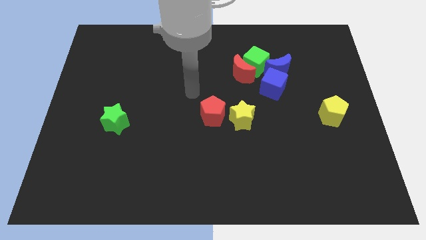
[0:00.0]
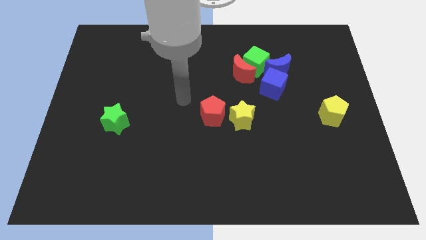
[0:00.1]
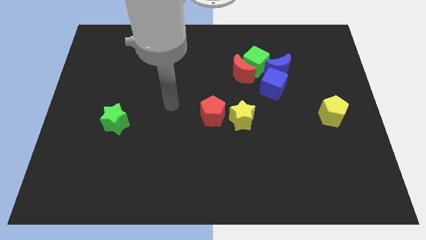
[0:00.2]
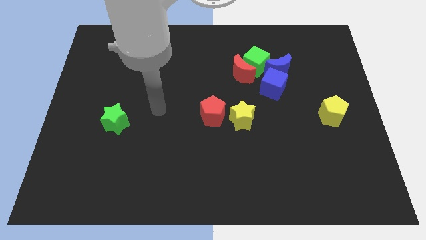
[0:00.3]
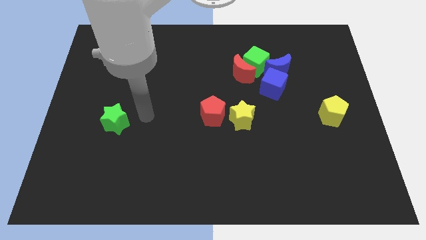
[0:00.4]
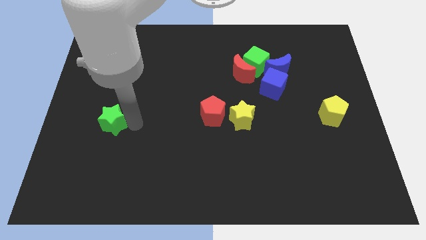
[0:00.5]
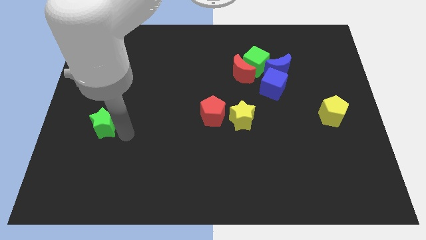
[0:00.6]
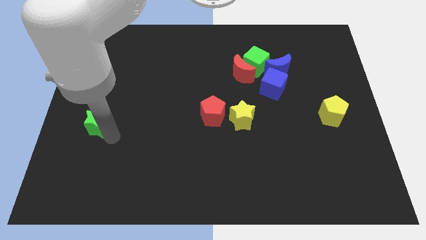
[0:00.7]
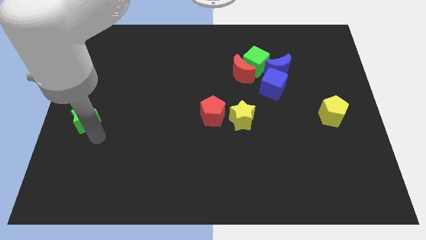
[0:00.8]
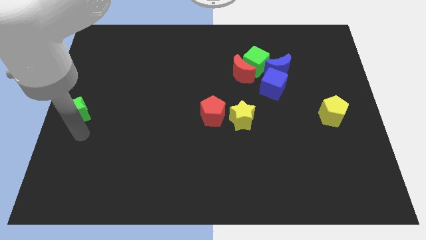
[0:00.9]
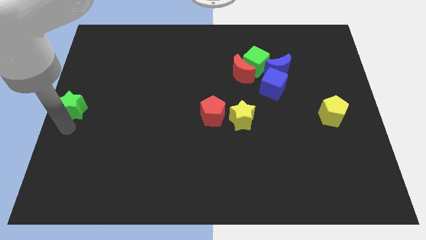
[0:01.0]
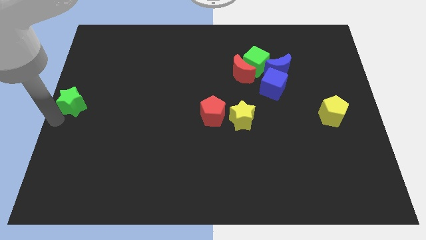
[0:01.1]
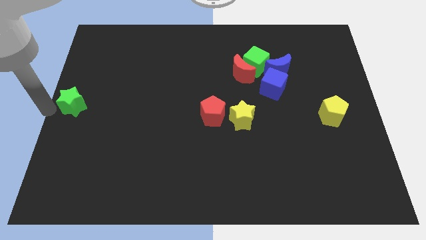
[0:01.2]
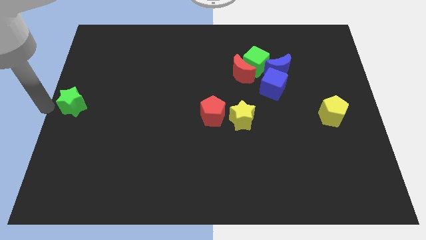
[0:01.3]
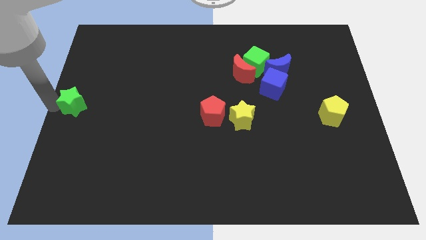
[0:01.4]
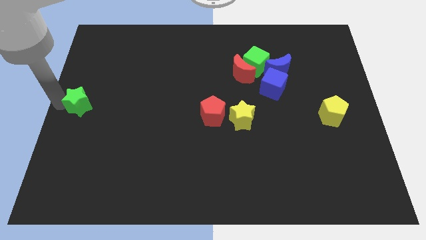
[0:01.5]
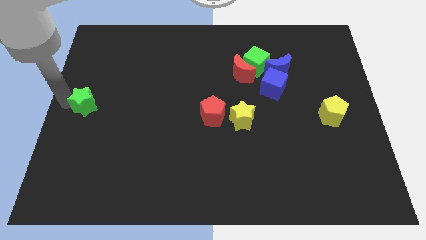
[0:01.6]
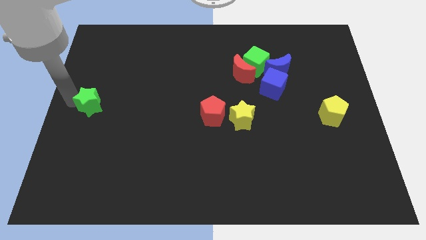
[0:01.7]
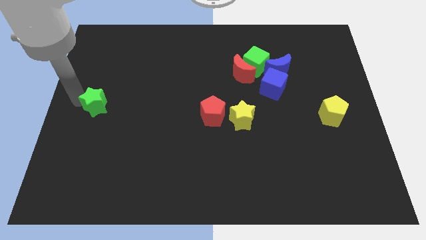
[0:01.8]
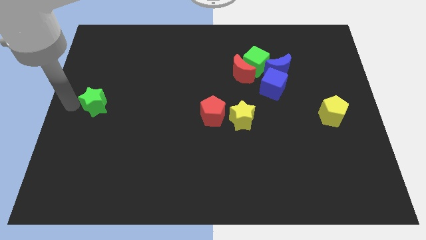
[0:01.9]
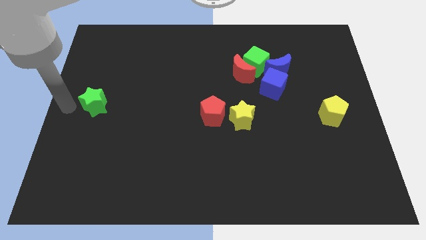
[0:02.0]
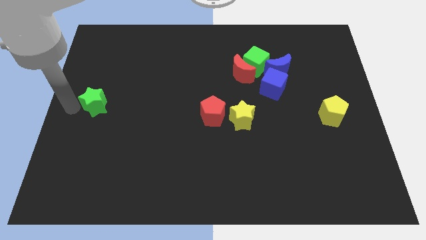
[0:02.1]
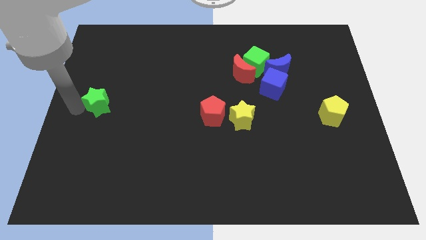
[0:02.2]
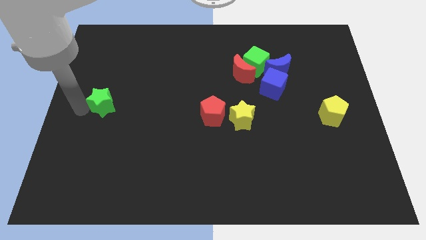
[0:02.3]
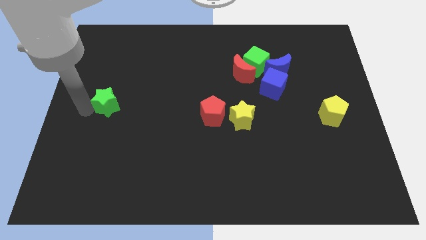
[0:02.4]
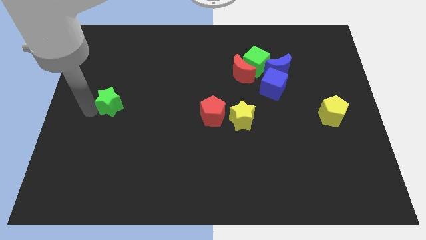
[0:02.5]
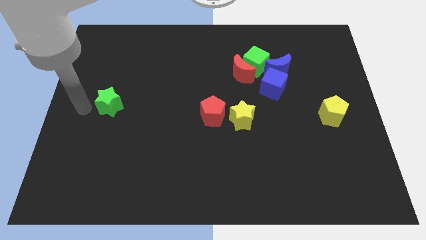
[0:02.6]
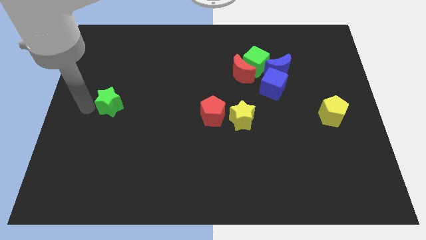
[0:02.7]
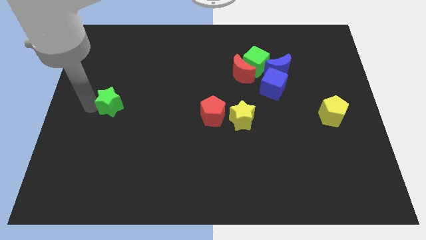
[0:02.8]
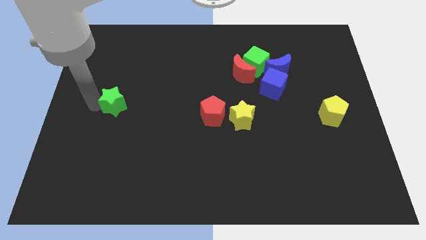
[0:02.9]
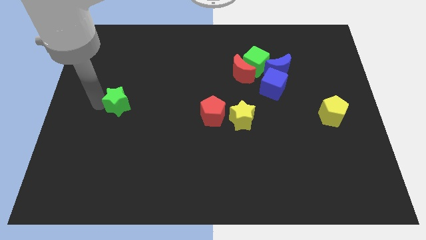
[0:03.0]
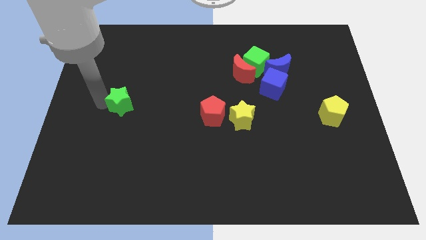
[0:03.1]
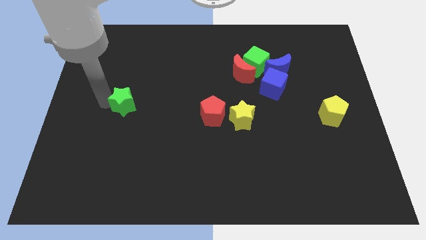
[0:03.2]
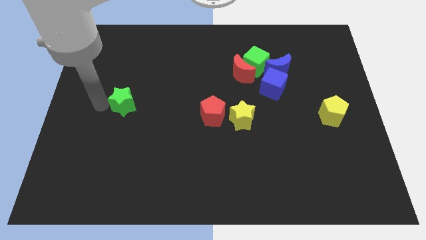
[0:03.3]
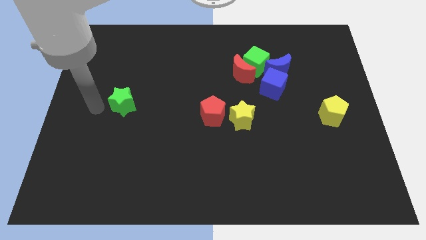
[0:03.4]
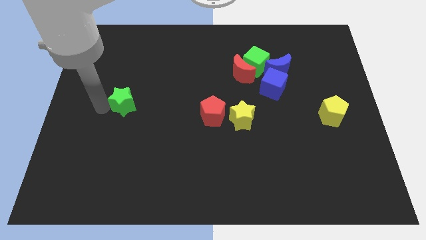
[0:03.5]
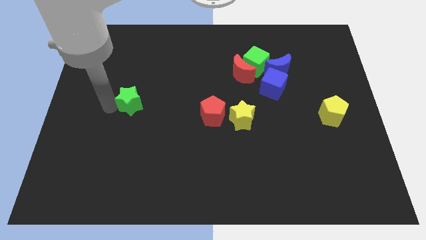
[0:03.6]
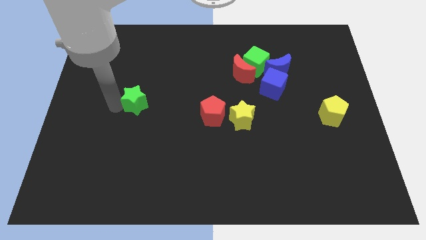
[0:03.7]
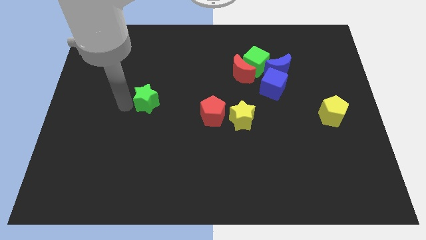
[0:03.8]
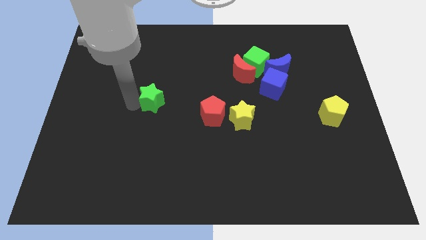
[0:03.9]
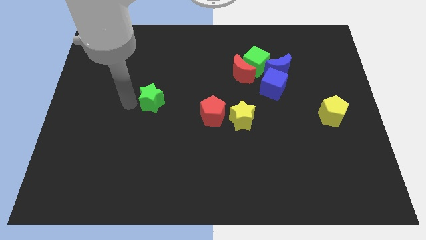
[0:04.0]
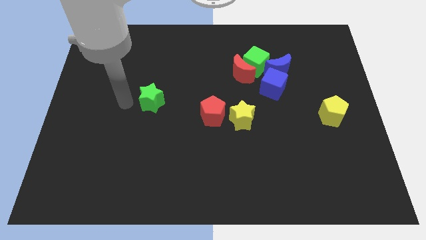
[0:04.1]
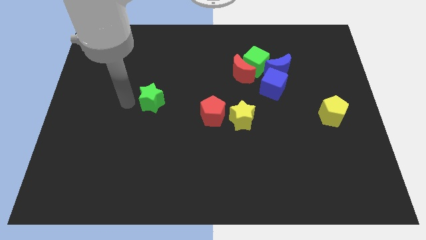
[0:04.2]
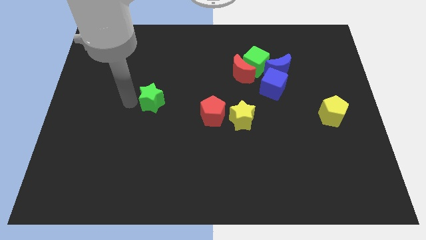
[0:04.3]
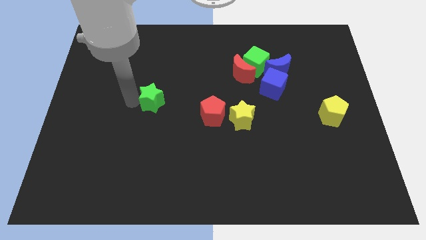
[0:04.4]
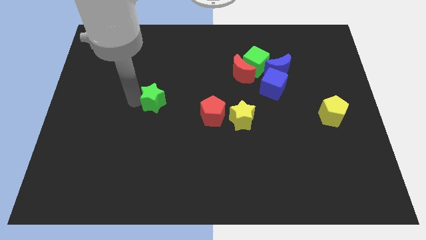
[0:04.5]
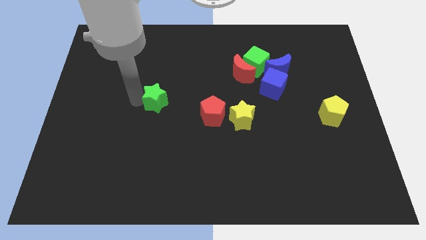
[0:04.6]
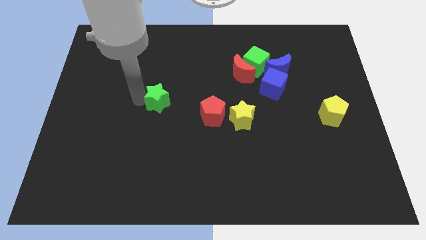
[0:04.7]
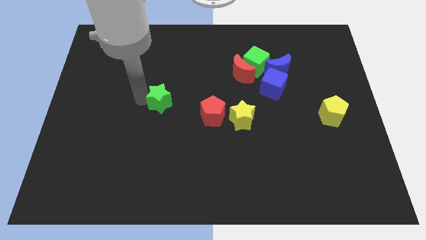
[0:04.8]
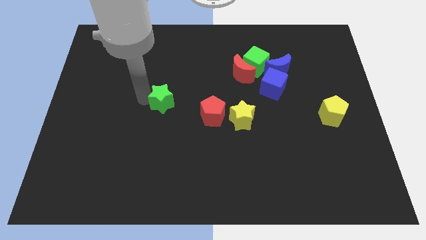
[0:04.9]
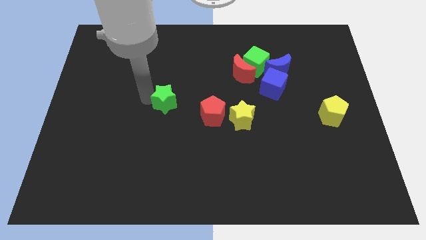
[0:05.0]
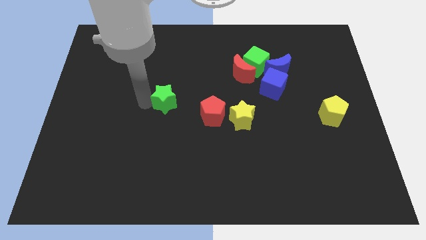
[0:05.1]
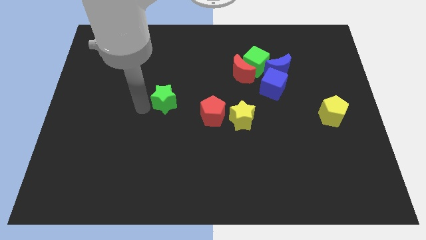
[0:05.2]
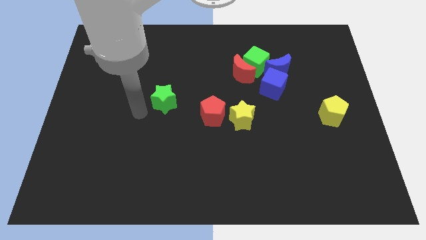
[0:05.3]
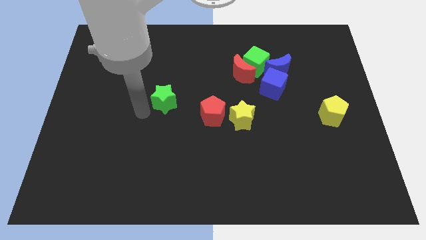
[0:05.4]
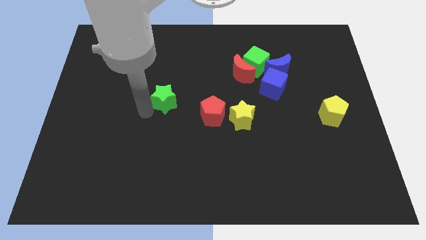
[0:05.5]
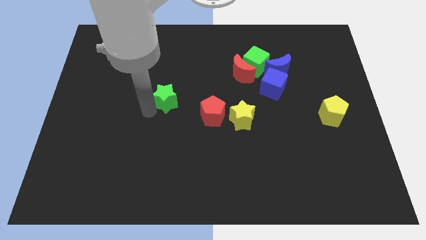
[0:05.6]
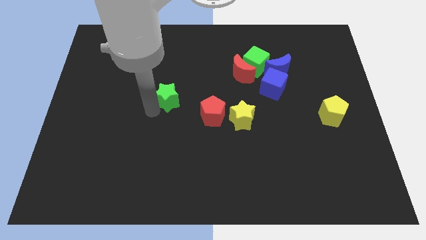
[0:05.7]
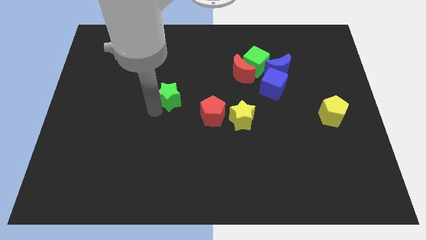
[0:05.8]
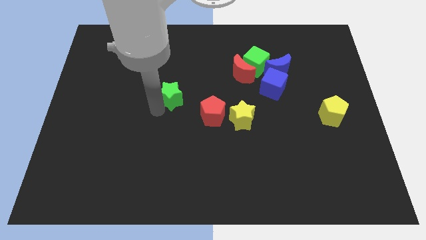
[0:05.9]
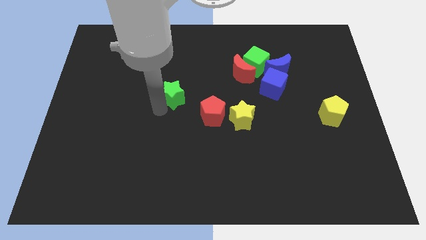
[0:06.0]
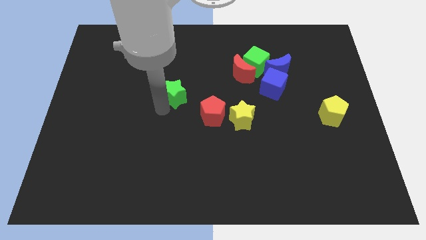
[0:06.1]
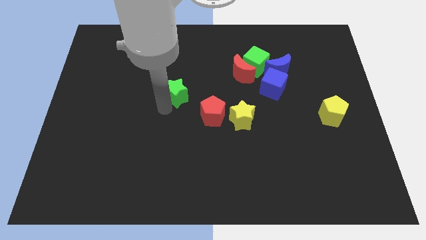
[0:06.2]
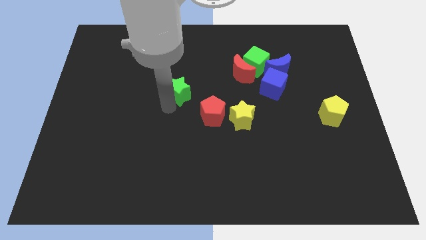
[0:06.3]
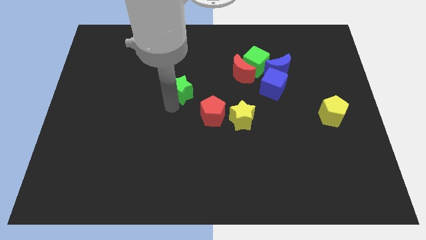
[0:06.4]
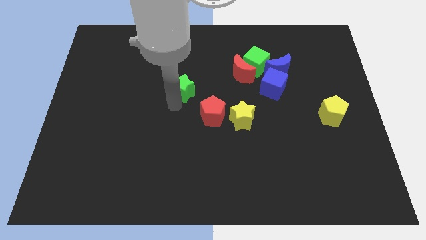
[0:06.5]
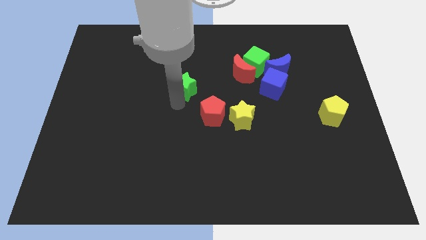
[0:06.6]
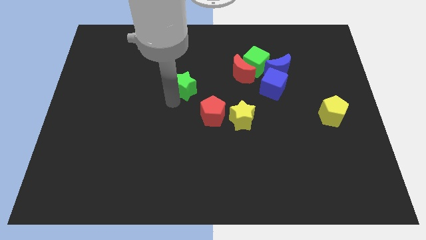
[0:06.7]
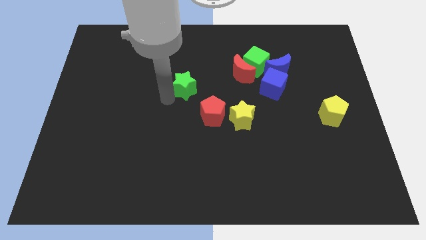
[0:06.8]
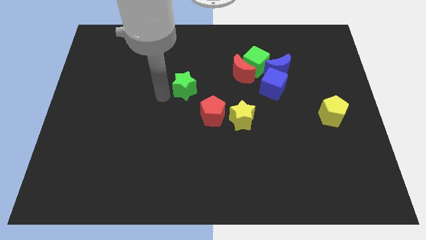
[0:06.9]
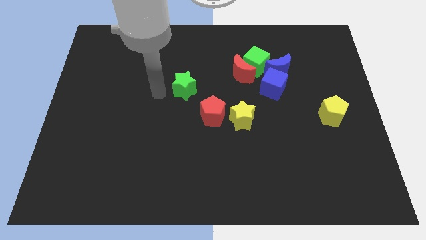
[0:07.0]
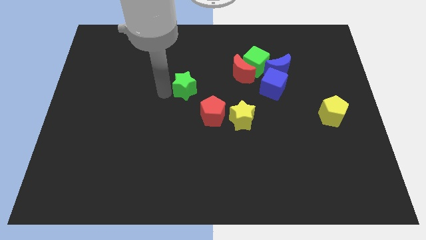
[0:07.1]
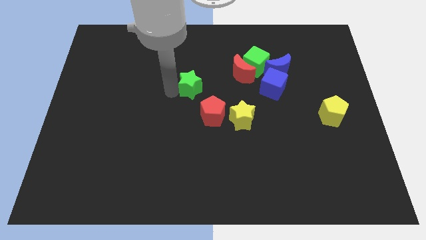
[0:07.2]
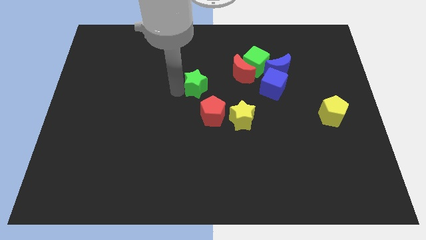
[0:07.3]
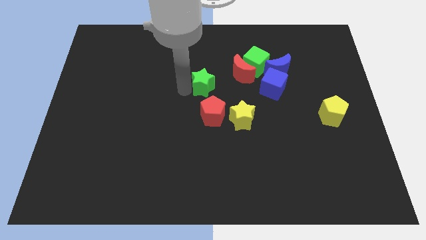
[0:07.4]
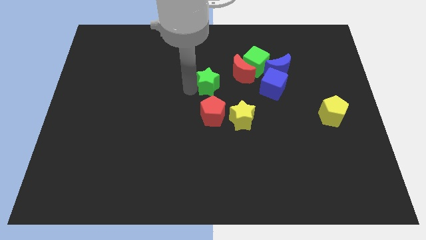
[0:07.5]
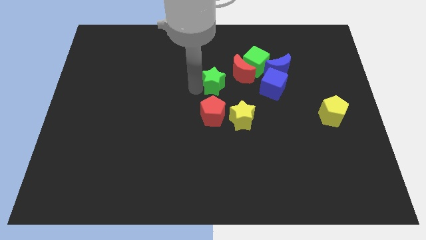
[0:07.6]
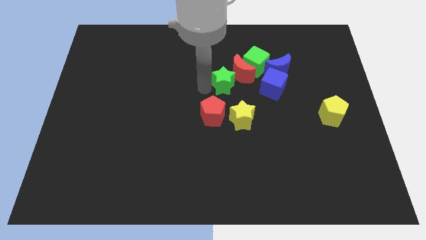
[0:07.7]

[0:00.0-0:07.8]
slide the green star to the red moon

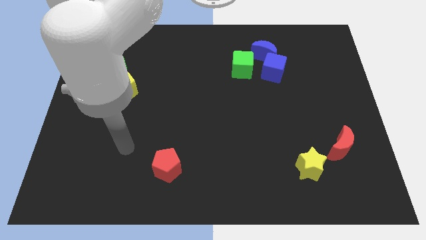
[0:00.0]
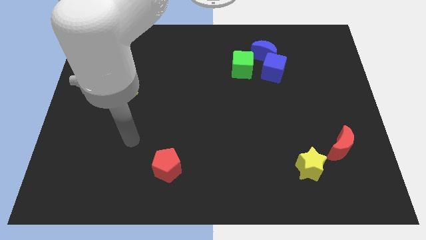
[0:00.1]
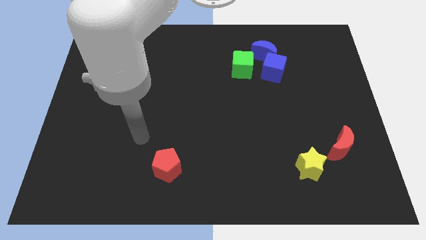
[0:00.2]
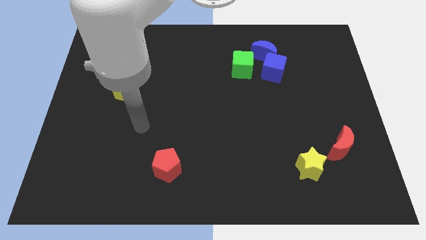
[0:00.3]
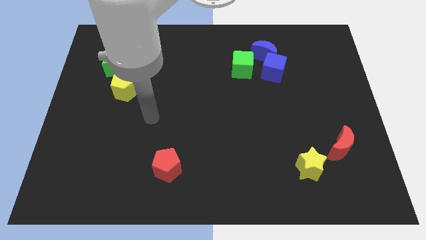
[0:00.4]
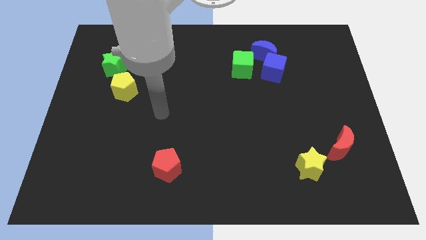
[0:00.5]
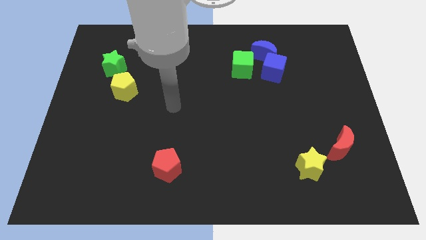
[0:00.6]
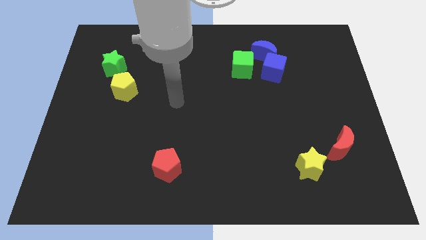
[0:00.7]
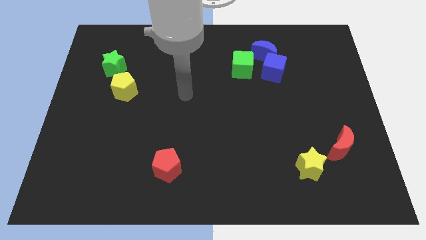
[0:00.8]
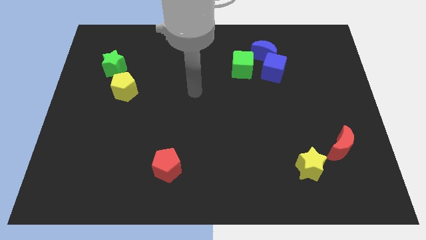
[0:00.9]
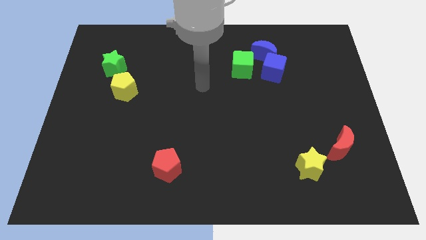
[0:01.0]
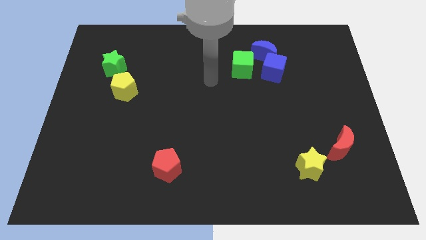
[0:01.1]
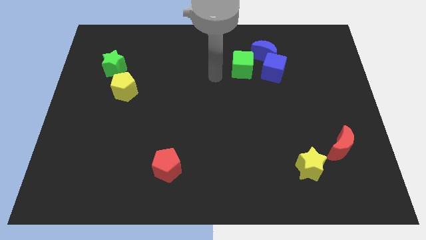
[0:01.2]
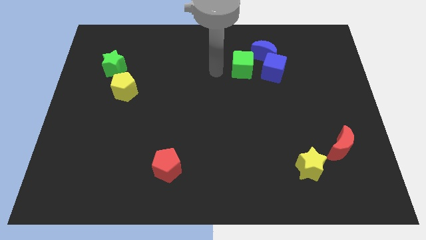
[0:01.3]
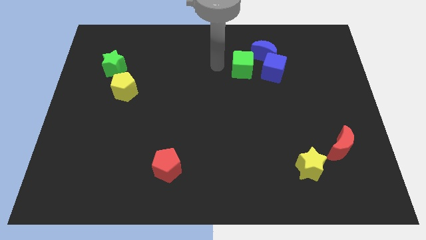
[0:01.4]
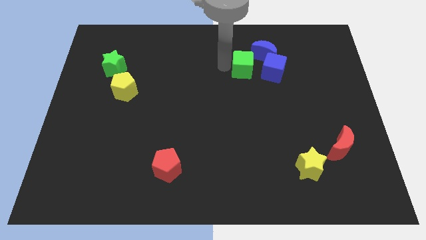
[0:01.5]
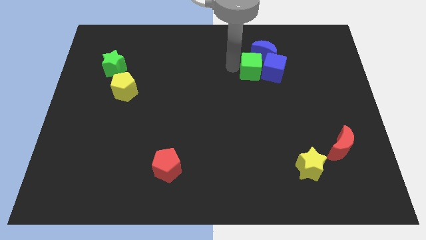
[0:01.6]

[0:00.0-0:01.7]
push the green cube next to the blue cube
